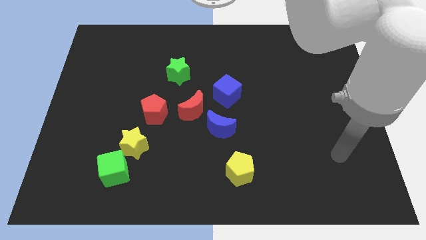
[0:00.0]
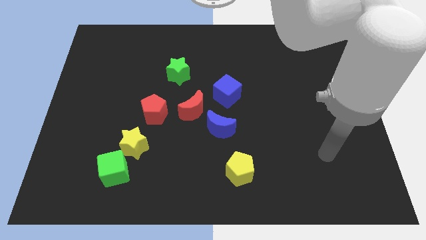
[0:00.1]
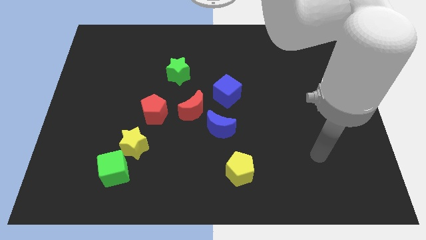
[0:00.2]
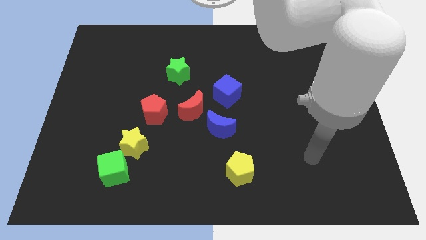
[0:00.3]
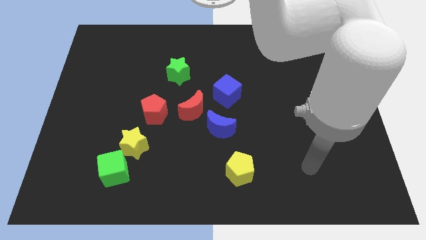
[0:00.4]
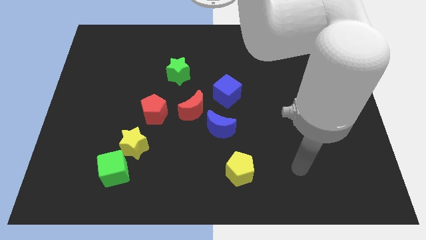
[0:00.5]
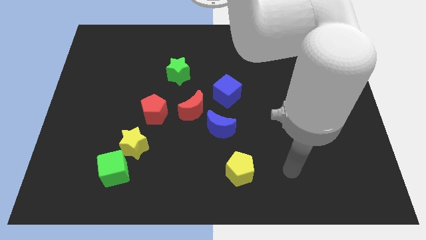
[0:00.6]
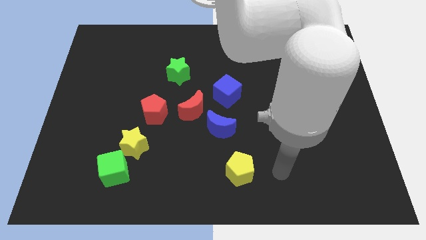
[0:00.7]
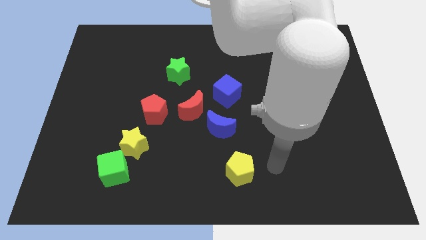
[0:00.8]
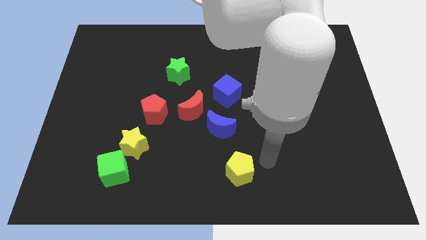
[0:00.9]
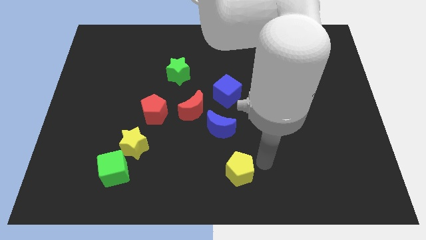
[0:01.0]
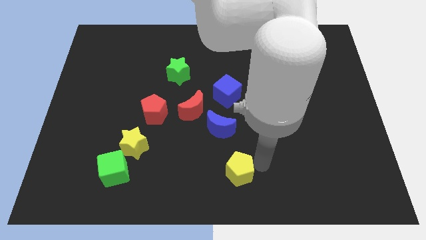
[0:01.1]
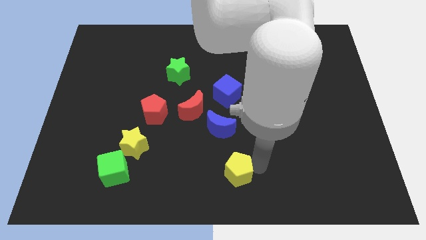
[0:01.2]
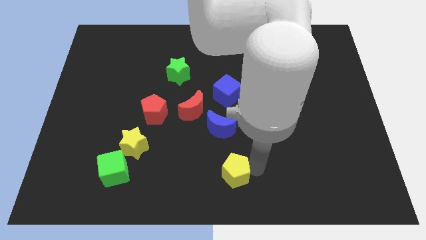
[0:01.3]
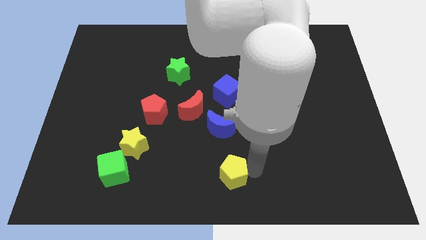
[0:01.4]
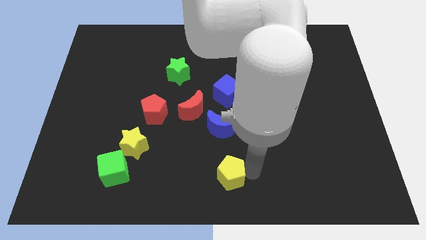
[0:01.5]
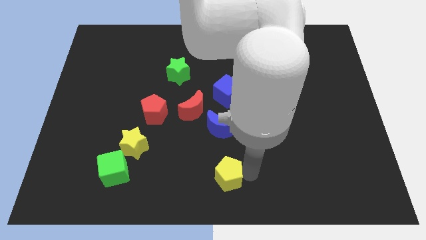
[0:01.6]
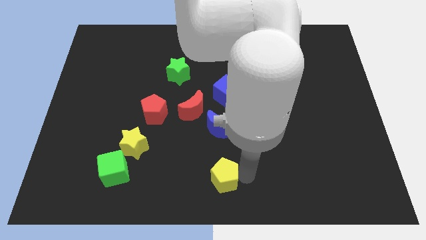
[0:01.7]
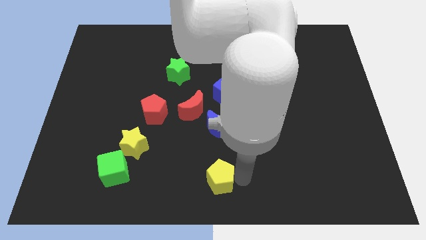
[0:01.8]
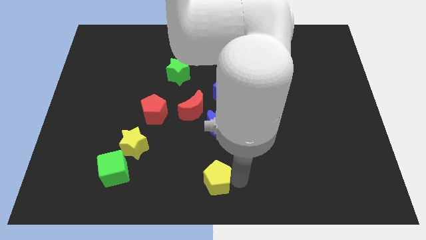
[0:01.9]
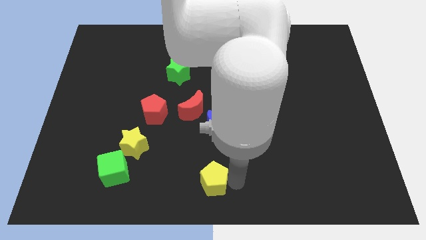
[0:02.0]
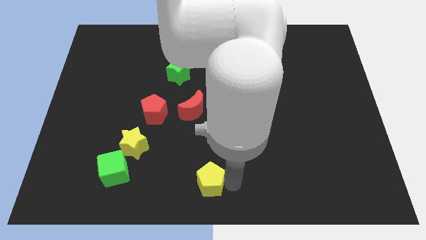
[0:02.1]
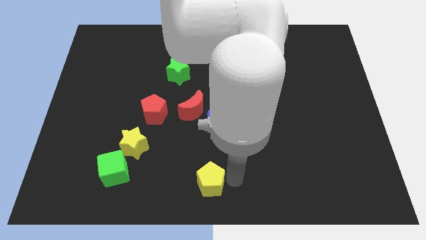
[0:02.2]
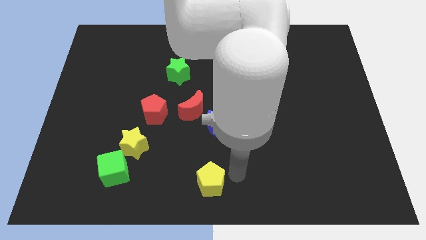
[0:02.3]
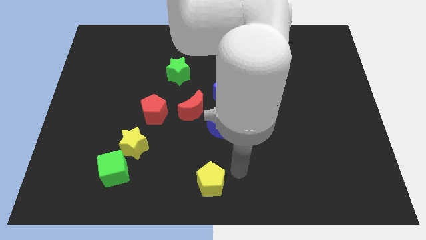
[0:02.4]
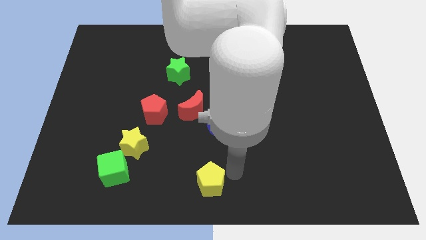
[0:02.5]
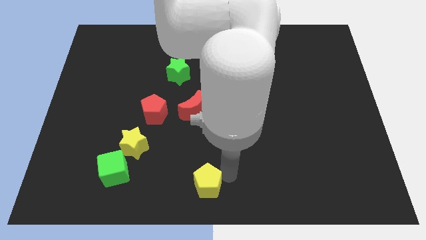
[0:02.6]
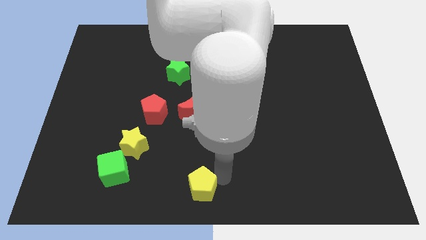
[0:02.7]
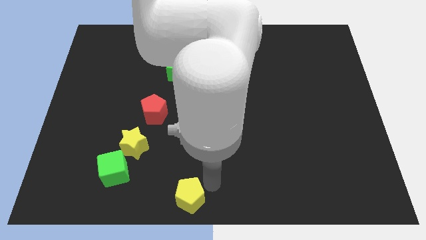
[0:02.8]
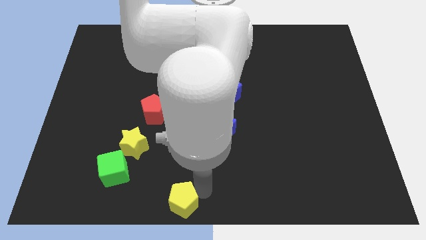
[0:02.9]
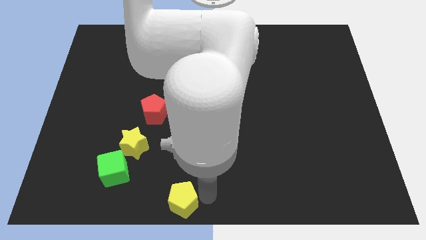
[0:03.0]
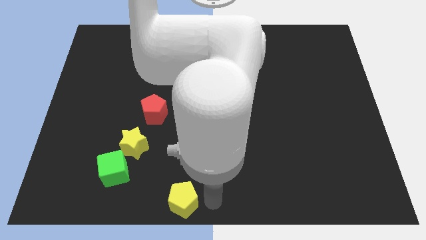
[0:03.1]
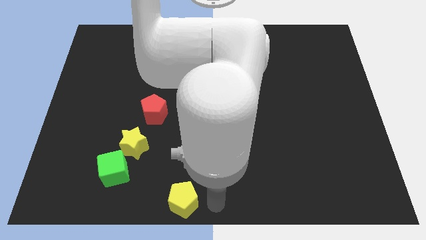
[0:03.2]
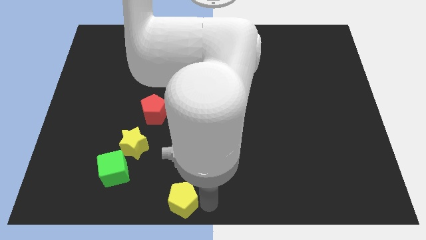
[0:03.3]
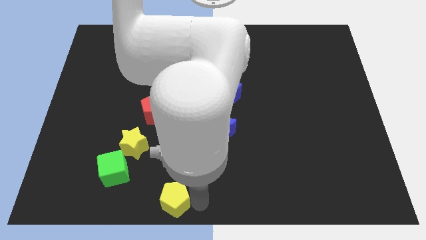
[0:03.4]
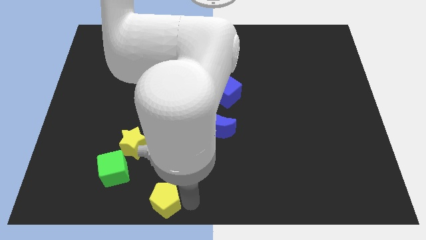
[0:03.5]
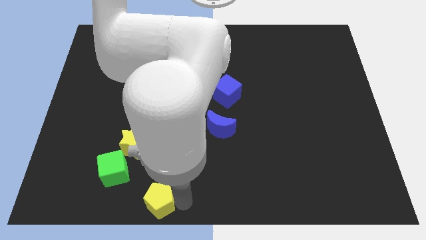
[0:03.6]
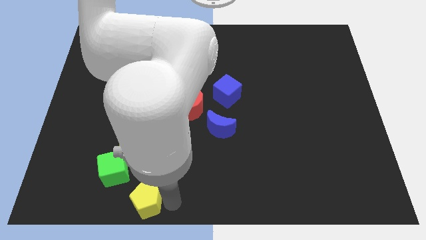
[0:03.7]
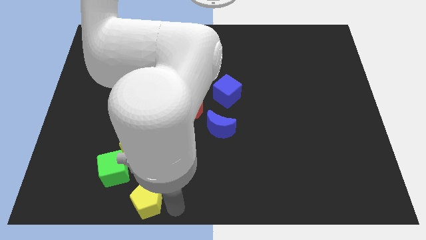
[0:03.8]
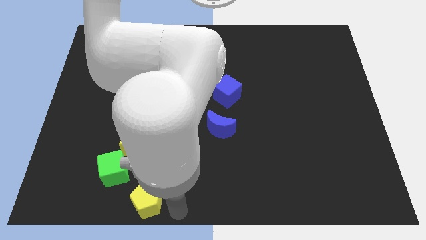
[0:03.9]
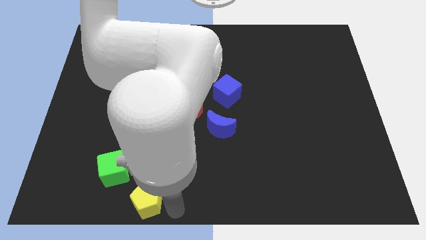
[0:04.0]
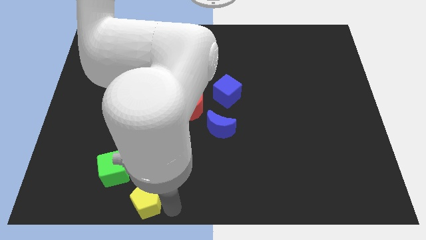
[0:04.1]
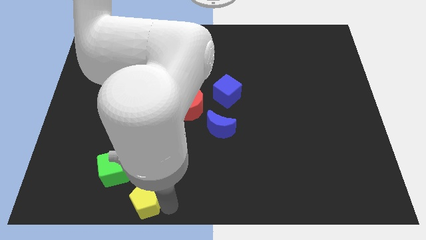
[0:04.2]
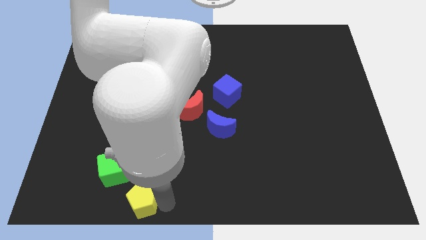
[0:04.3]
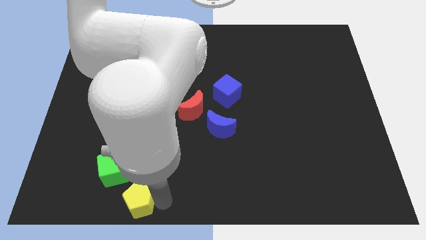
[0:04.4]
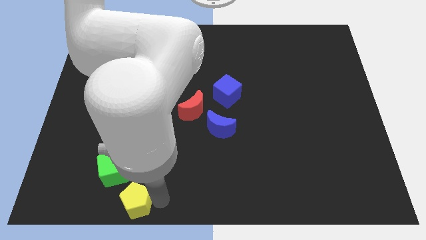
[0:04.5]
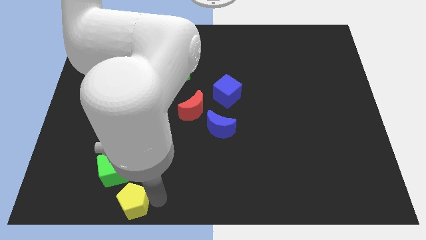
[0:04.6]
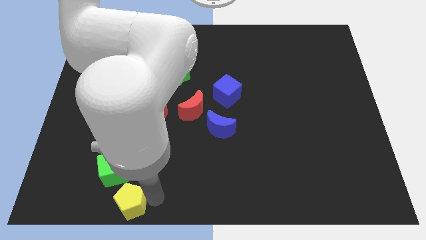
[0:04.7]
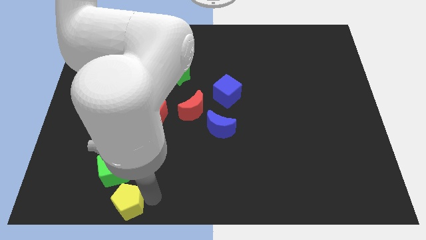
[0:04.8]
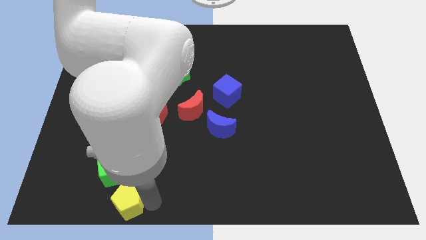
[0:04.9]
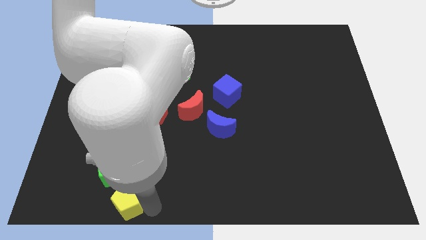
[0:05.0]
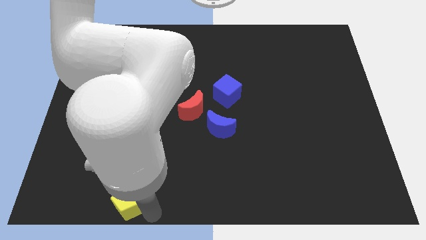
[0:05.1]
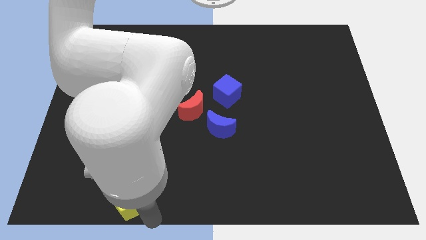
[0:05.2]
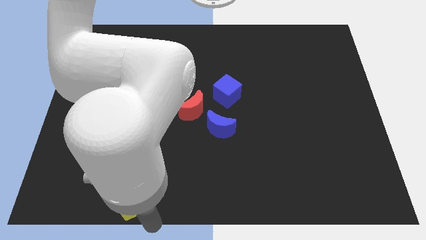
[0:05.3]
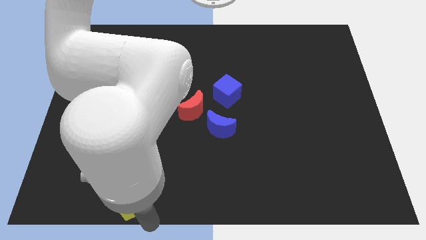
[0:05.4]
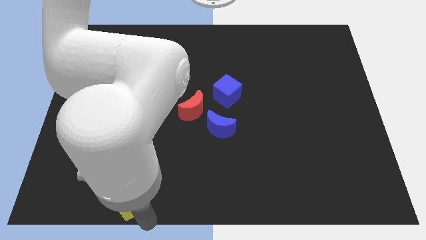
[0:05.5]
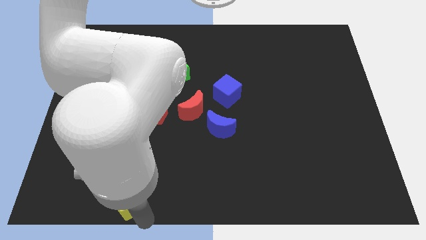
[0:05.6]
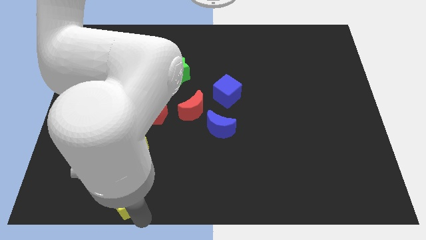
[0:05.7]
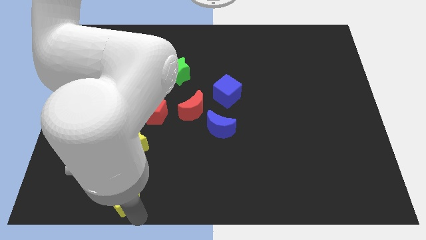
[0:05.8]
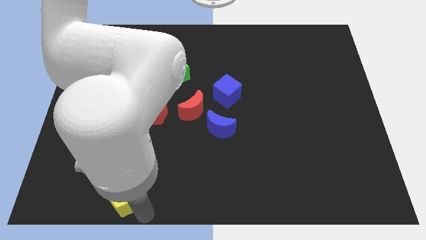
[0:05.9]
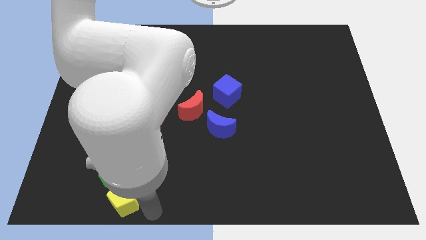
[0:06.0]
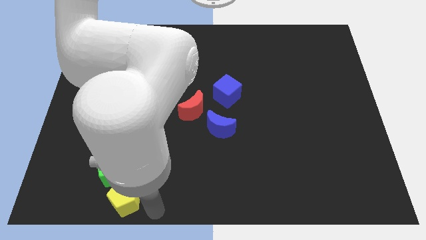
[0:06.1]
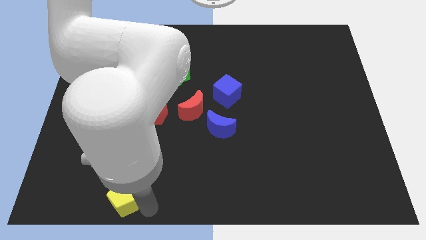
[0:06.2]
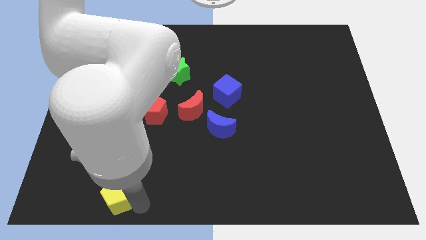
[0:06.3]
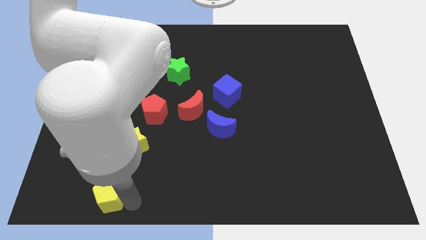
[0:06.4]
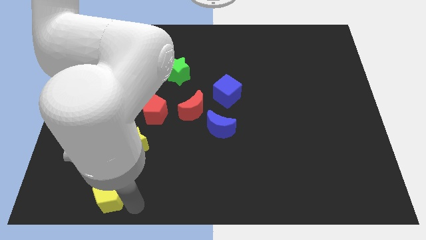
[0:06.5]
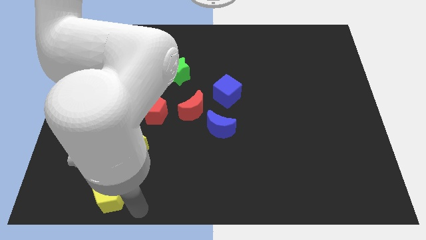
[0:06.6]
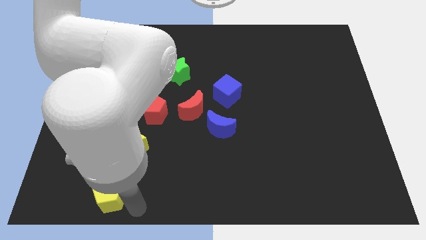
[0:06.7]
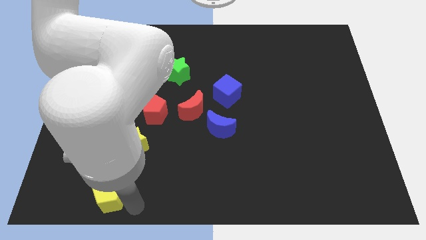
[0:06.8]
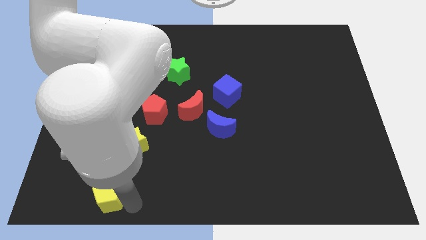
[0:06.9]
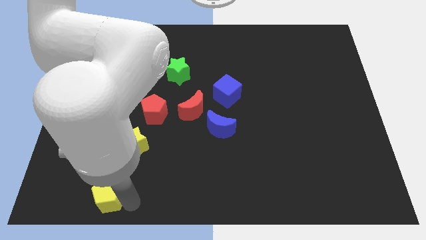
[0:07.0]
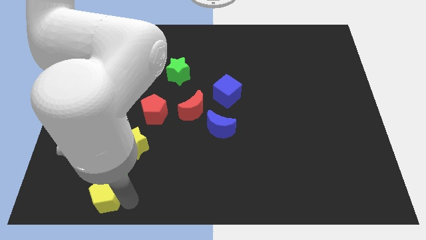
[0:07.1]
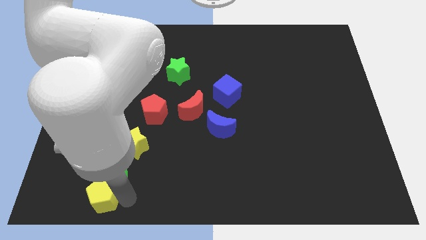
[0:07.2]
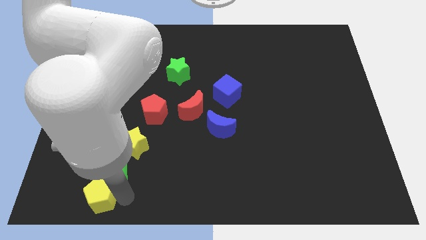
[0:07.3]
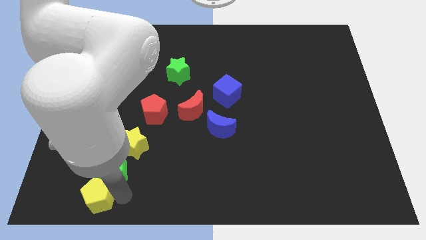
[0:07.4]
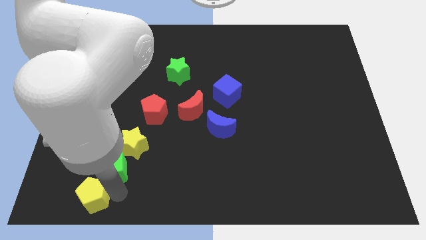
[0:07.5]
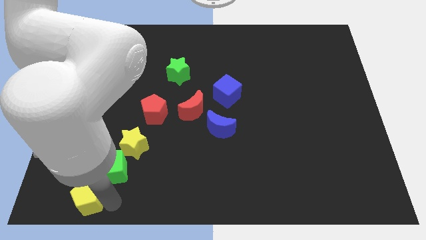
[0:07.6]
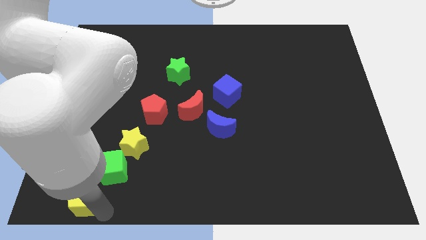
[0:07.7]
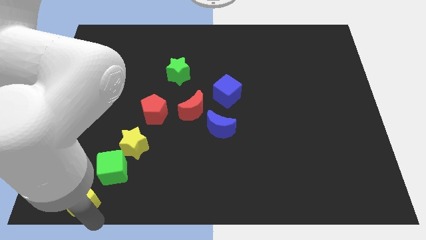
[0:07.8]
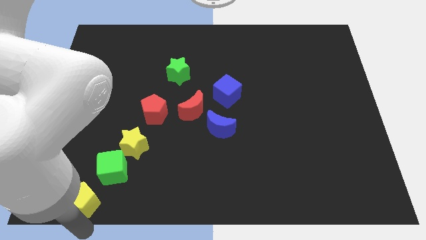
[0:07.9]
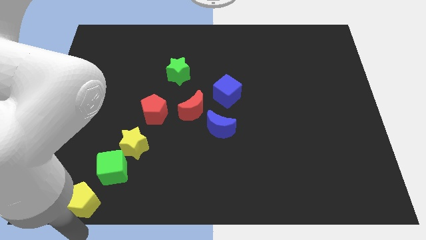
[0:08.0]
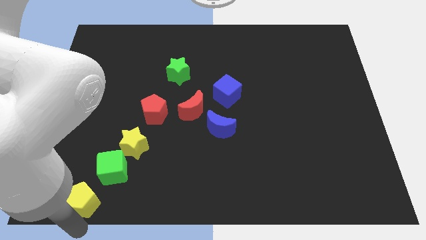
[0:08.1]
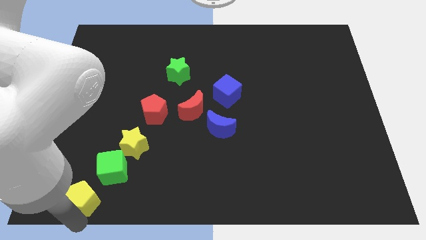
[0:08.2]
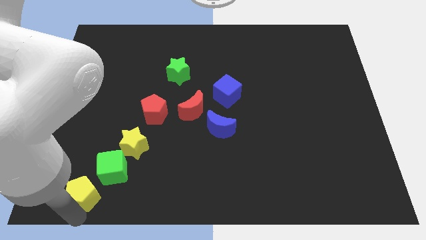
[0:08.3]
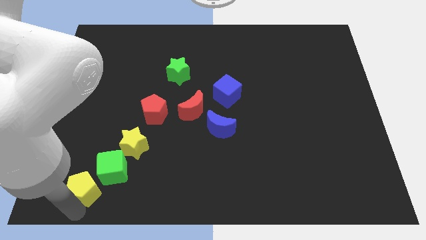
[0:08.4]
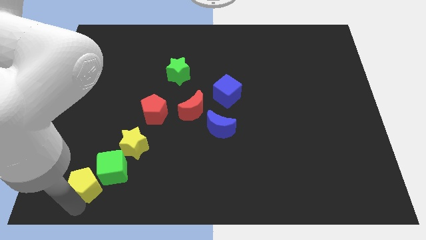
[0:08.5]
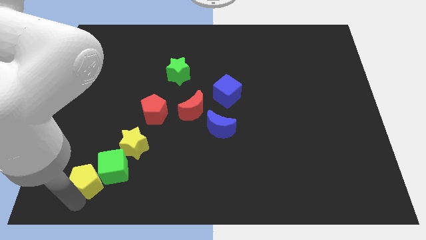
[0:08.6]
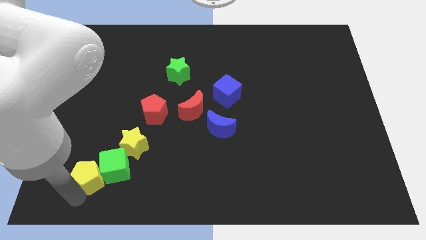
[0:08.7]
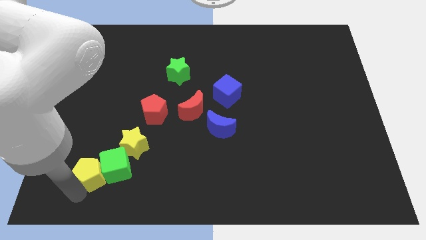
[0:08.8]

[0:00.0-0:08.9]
push the yellow pentagon diagonally up and to the left of the green cube
